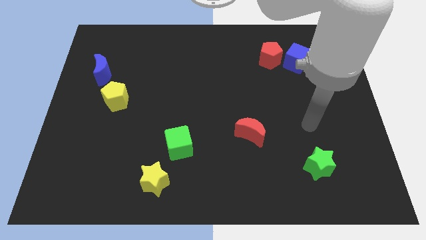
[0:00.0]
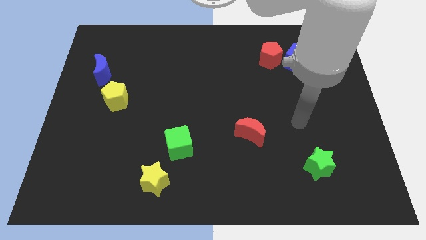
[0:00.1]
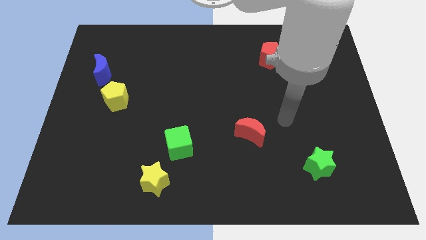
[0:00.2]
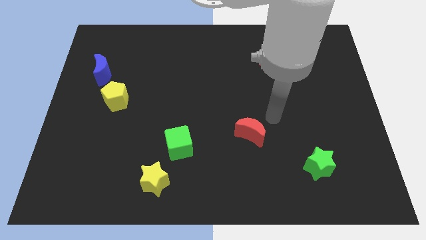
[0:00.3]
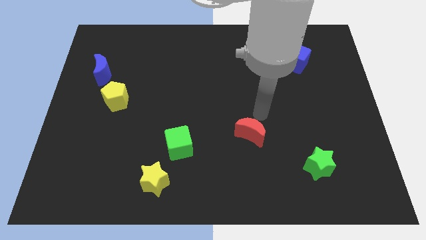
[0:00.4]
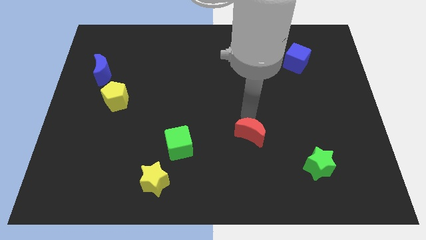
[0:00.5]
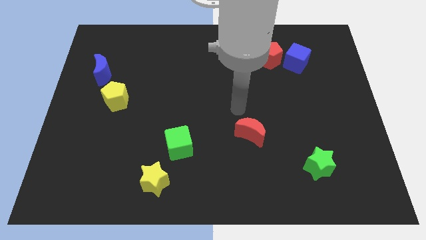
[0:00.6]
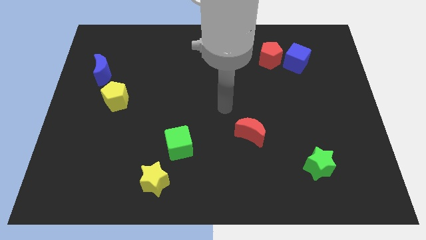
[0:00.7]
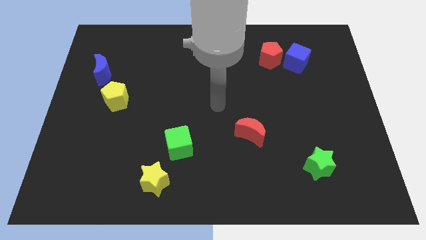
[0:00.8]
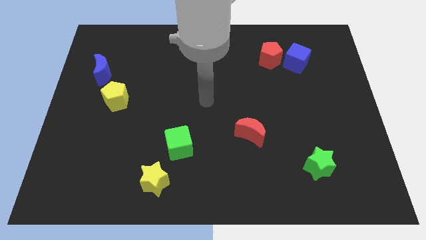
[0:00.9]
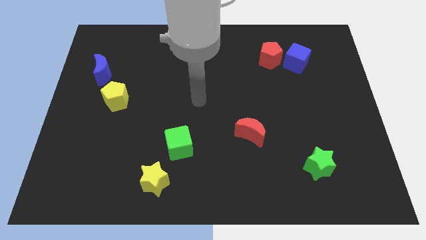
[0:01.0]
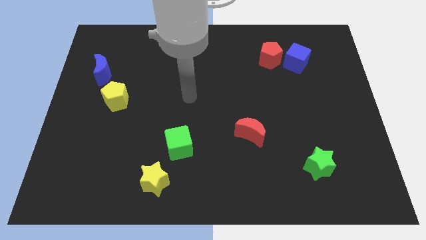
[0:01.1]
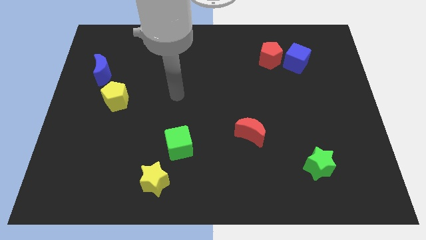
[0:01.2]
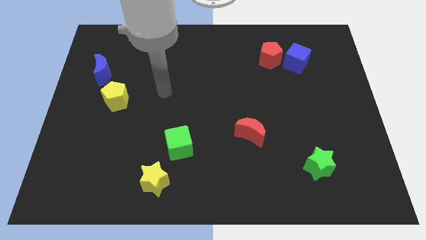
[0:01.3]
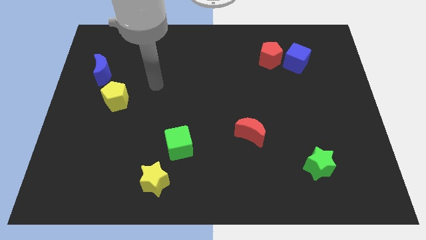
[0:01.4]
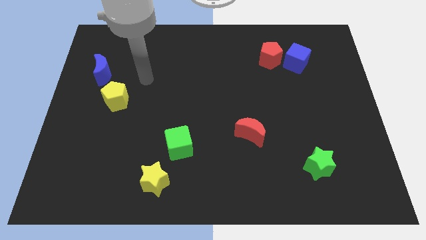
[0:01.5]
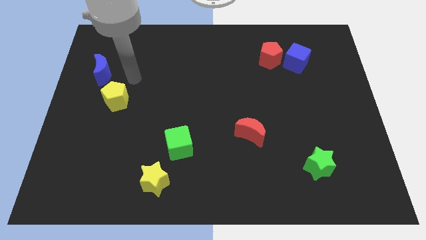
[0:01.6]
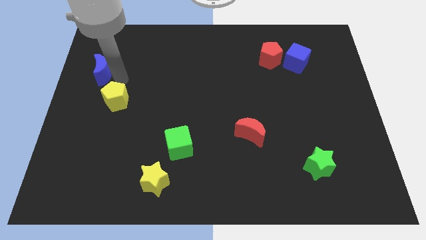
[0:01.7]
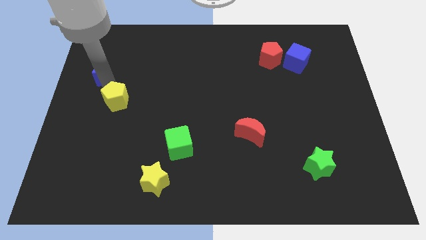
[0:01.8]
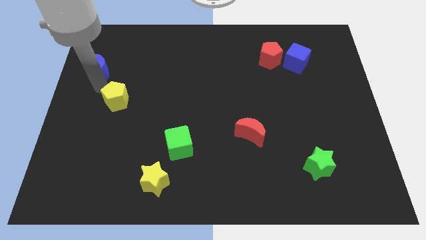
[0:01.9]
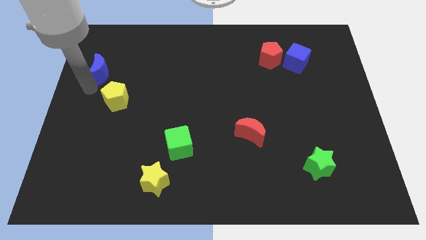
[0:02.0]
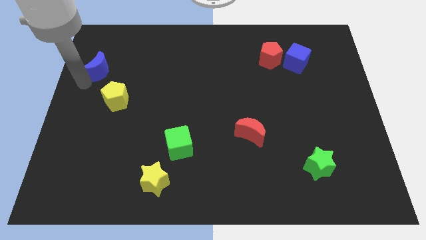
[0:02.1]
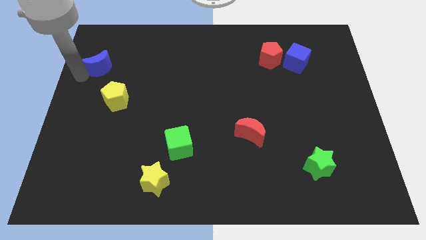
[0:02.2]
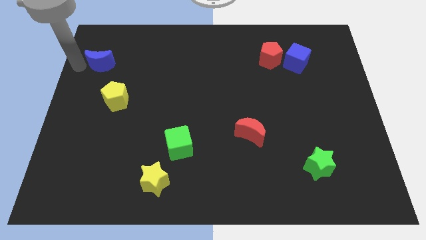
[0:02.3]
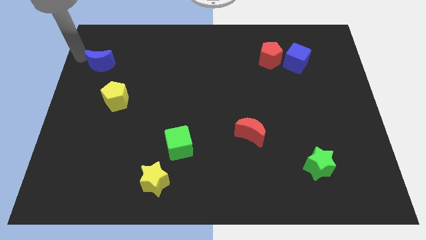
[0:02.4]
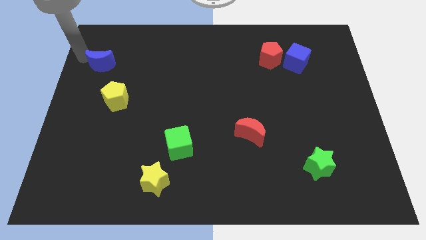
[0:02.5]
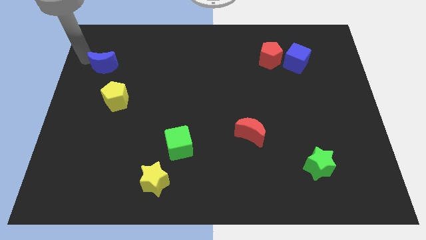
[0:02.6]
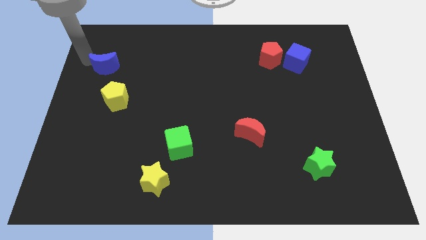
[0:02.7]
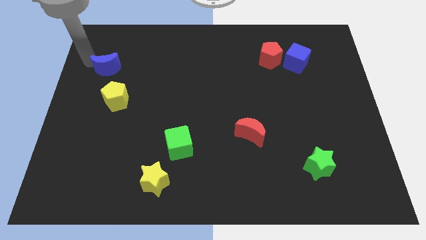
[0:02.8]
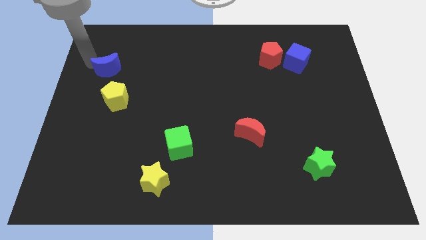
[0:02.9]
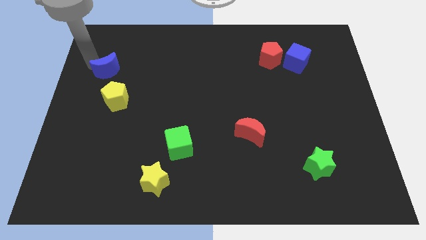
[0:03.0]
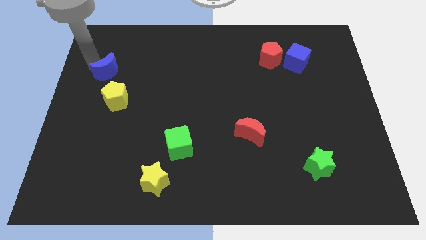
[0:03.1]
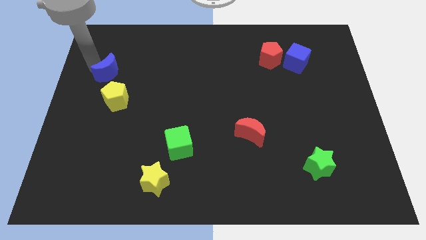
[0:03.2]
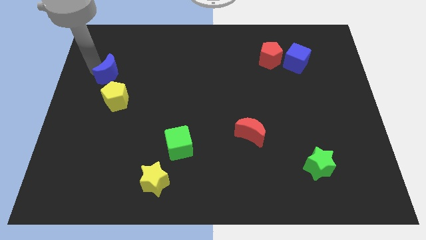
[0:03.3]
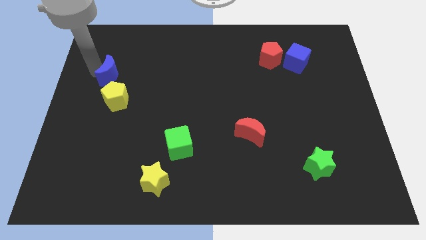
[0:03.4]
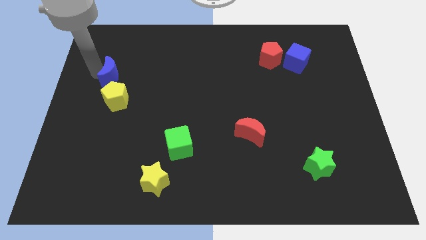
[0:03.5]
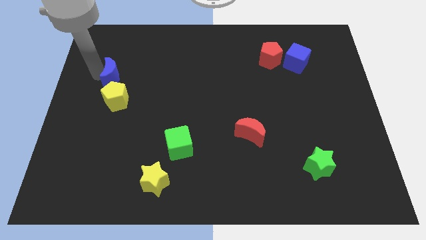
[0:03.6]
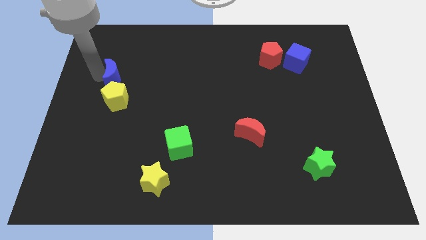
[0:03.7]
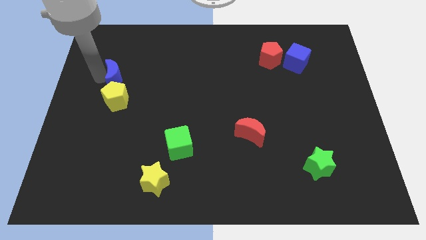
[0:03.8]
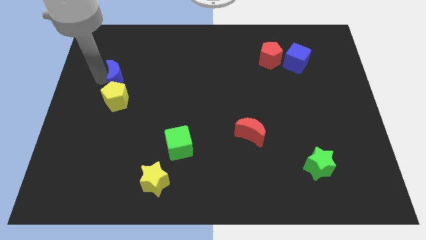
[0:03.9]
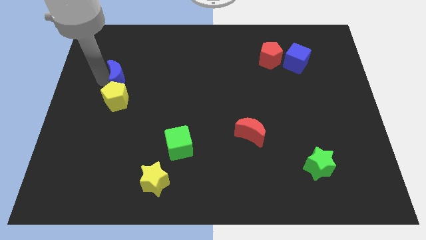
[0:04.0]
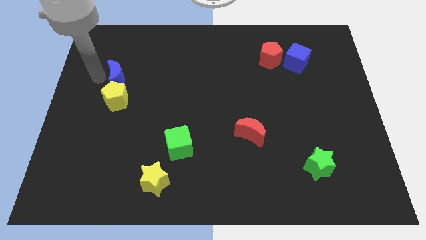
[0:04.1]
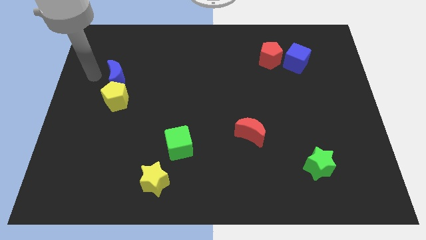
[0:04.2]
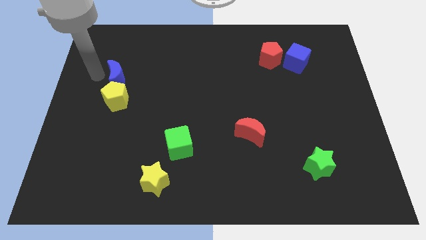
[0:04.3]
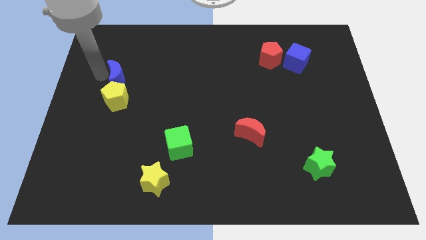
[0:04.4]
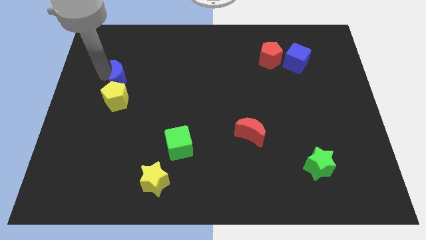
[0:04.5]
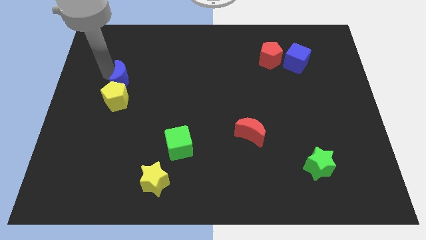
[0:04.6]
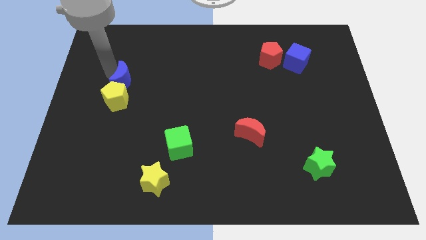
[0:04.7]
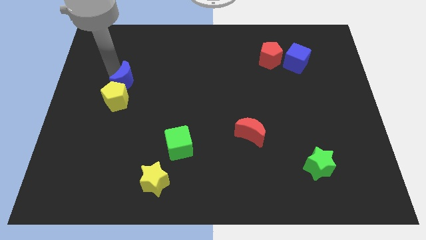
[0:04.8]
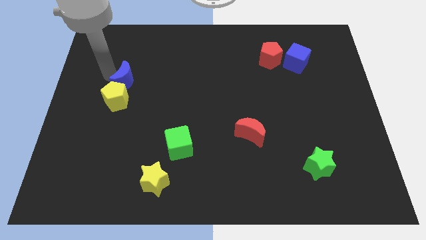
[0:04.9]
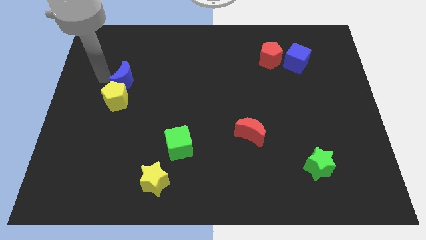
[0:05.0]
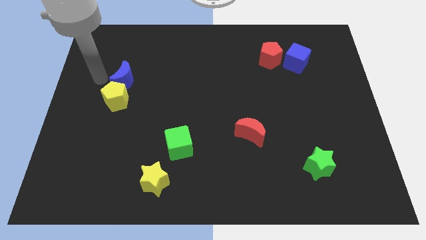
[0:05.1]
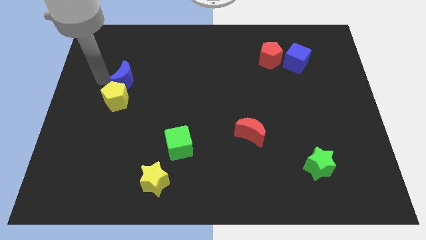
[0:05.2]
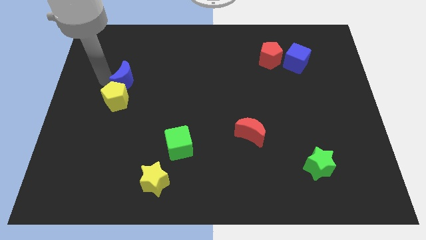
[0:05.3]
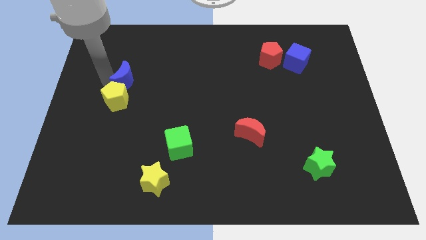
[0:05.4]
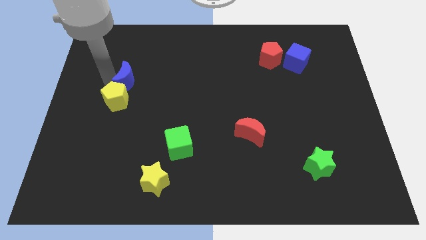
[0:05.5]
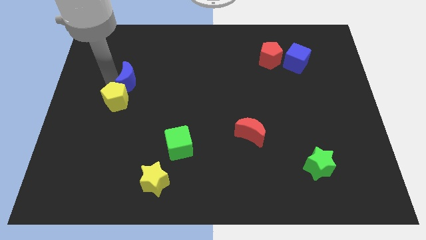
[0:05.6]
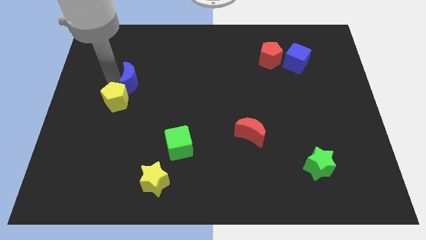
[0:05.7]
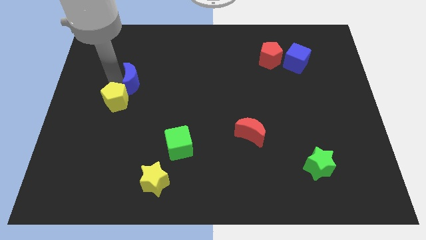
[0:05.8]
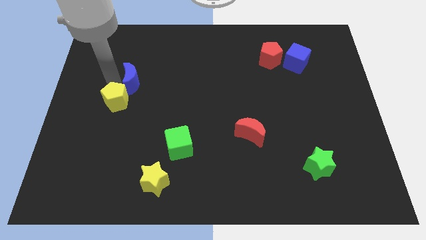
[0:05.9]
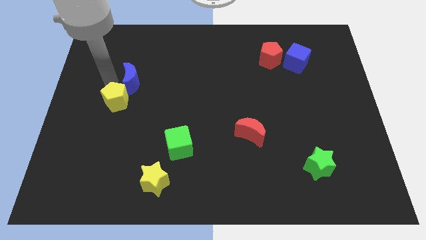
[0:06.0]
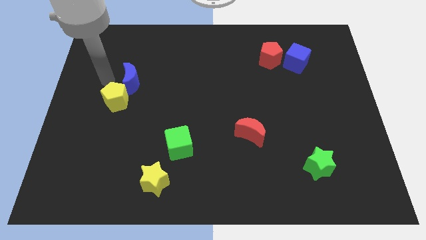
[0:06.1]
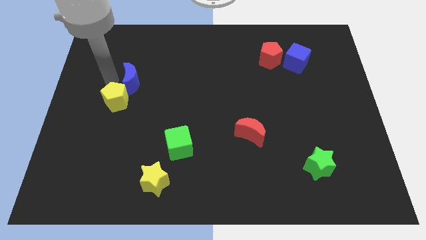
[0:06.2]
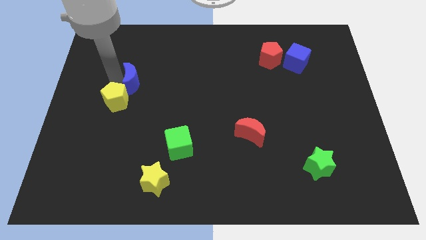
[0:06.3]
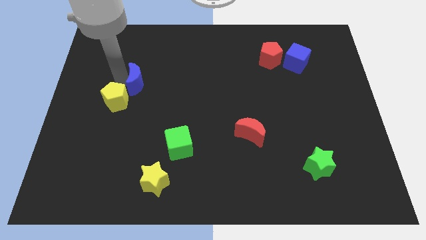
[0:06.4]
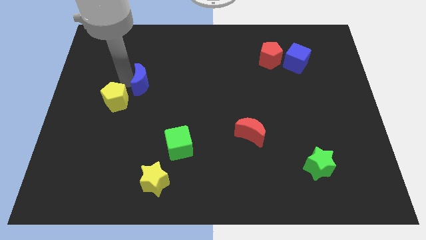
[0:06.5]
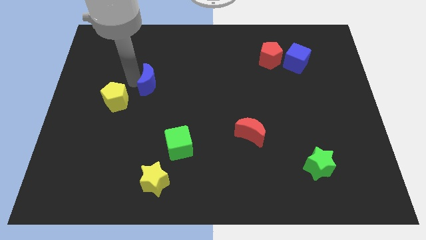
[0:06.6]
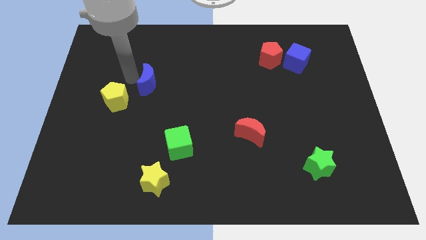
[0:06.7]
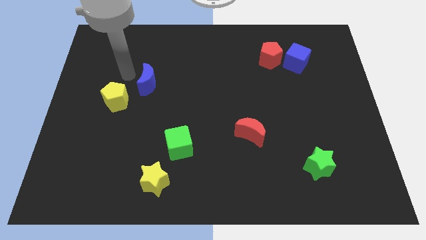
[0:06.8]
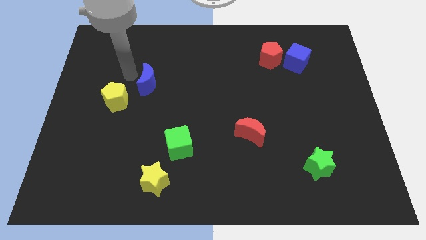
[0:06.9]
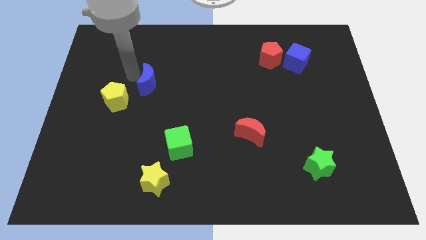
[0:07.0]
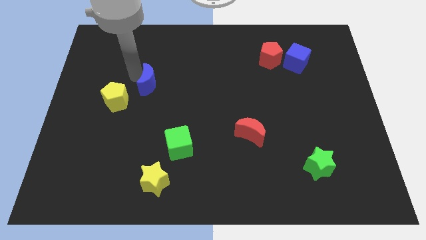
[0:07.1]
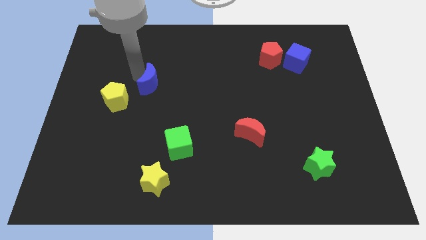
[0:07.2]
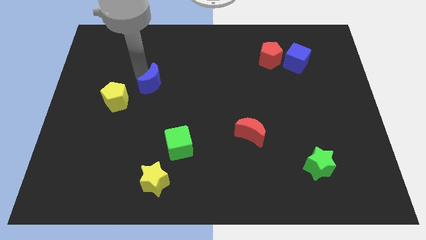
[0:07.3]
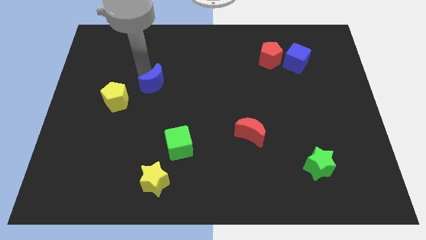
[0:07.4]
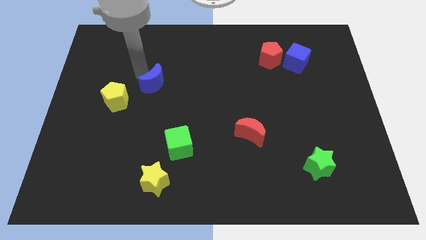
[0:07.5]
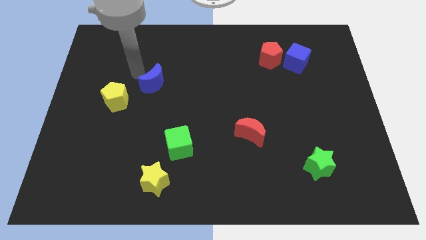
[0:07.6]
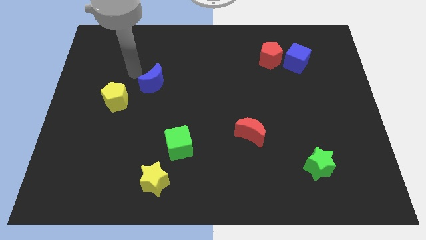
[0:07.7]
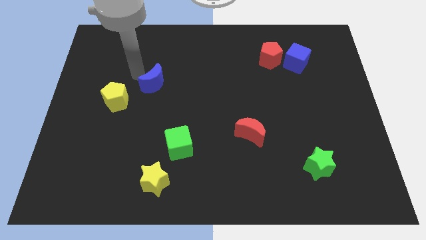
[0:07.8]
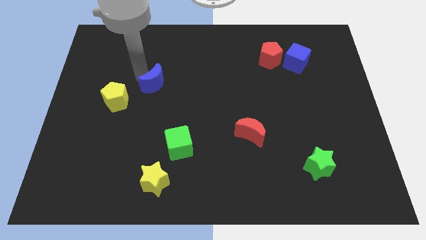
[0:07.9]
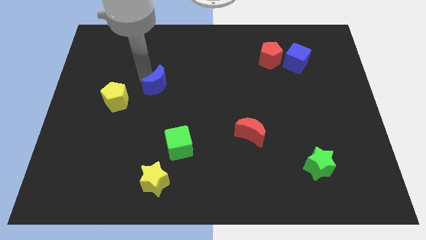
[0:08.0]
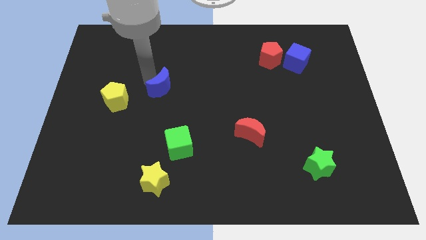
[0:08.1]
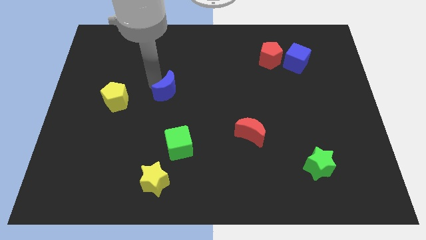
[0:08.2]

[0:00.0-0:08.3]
move the blue moon to the center
